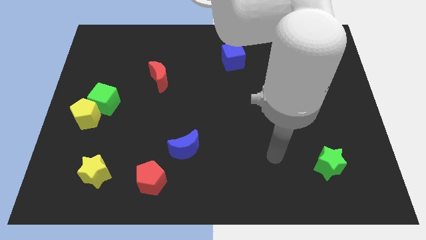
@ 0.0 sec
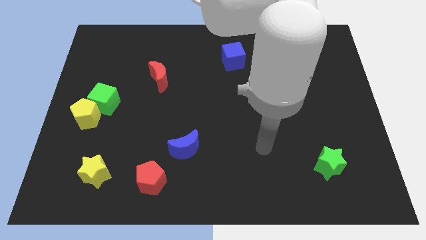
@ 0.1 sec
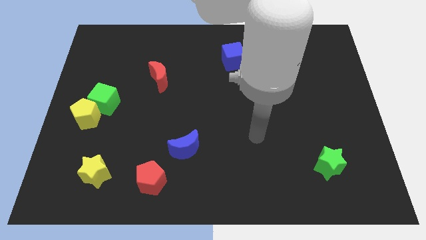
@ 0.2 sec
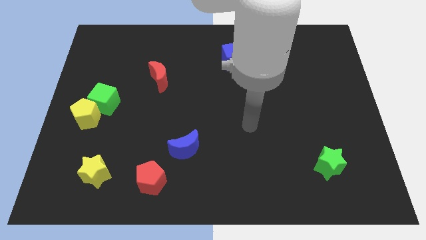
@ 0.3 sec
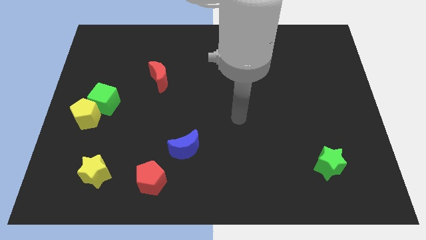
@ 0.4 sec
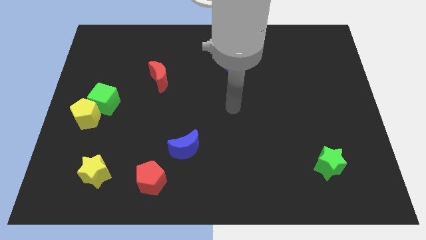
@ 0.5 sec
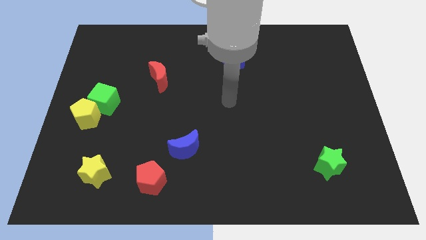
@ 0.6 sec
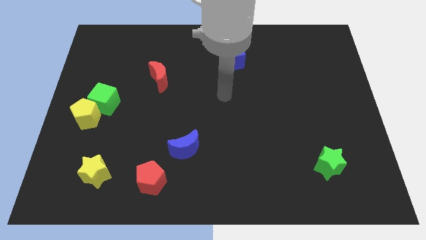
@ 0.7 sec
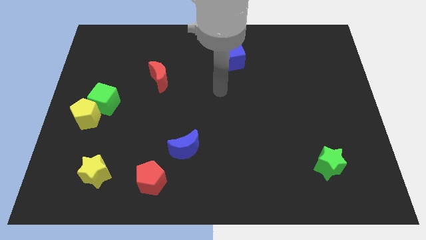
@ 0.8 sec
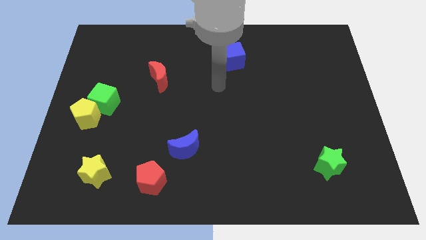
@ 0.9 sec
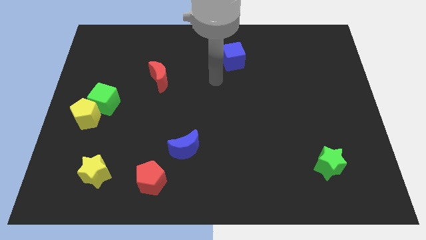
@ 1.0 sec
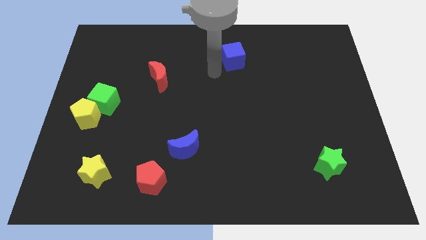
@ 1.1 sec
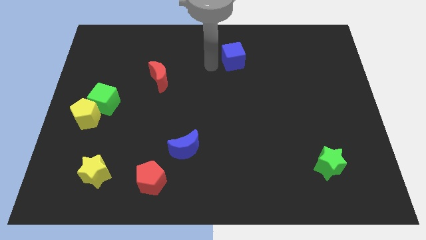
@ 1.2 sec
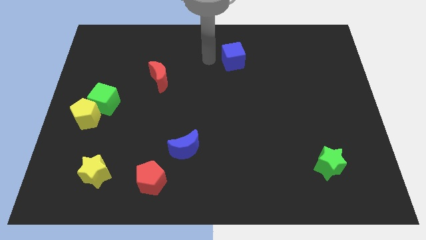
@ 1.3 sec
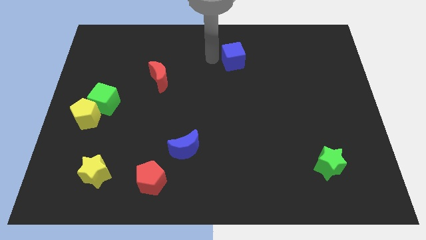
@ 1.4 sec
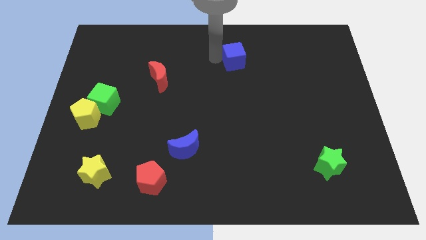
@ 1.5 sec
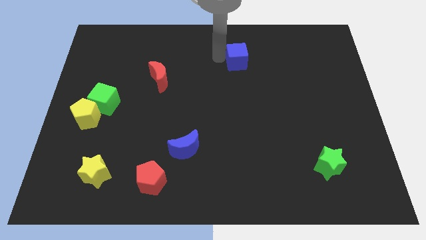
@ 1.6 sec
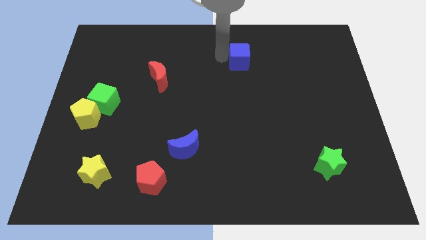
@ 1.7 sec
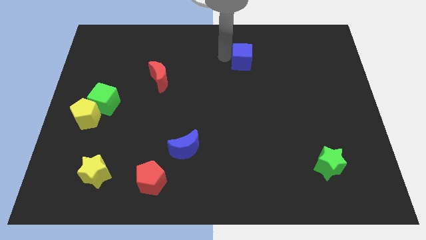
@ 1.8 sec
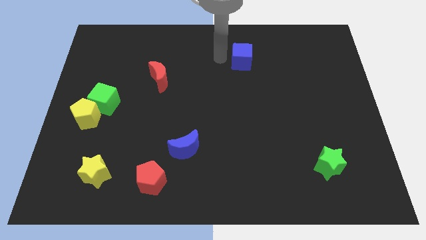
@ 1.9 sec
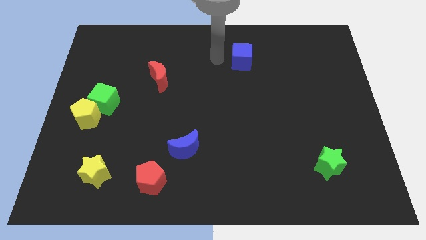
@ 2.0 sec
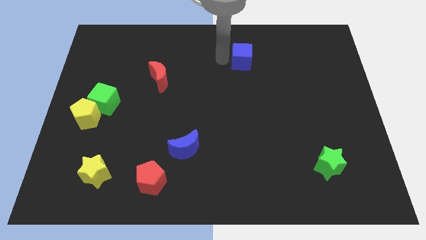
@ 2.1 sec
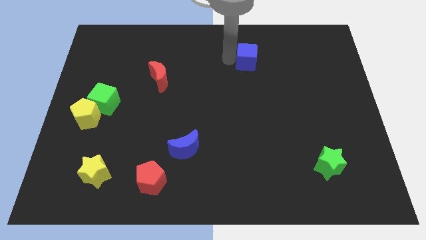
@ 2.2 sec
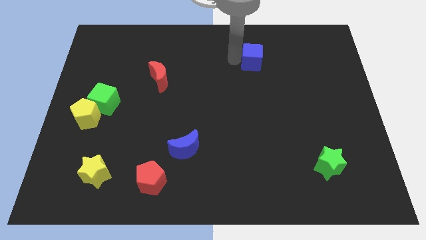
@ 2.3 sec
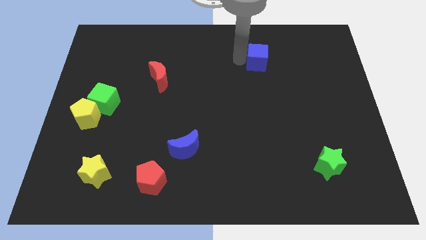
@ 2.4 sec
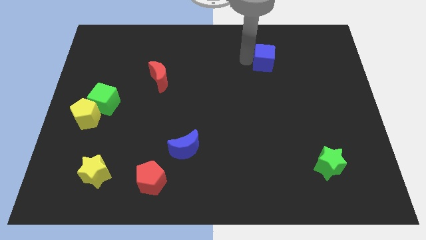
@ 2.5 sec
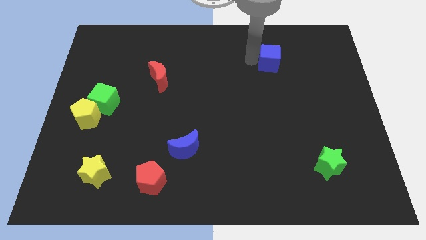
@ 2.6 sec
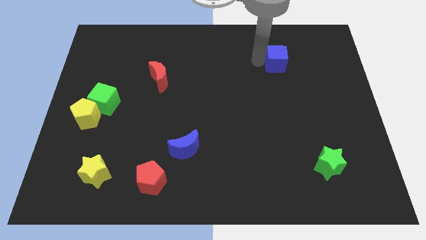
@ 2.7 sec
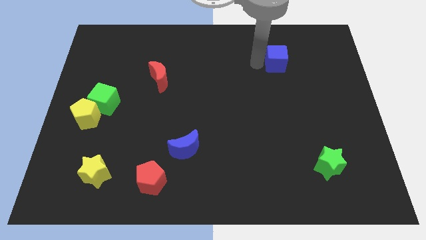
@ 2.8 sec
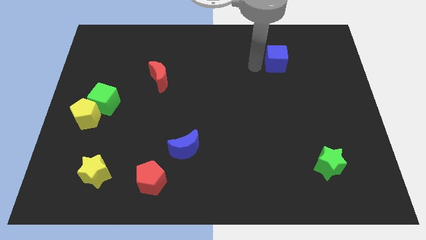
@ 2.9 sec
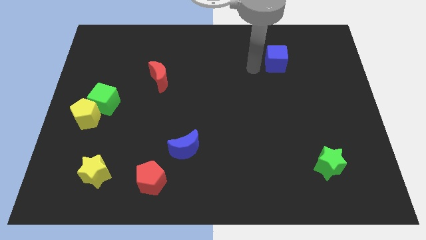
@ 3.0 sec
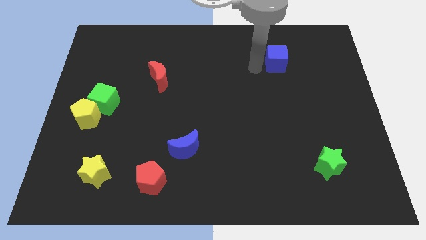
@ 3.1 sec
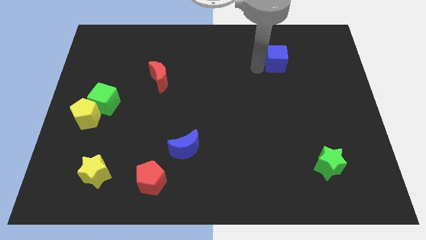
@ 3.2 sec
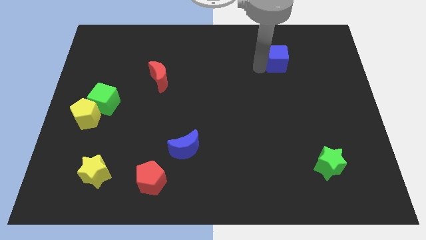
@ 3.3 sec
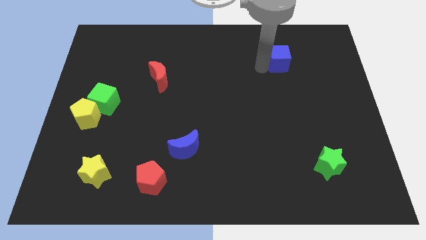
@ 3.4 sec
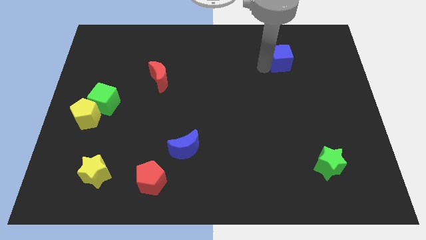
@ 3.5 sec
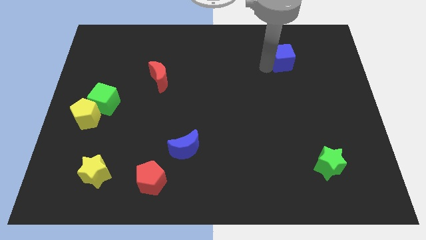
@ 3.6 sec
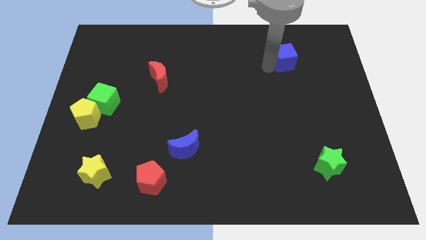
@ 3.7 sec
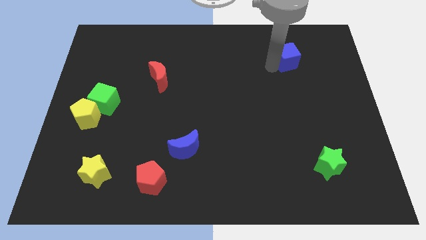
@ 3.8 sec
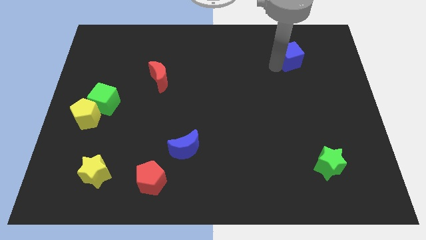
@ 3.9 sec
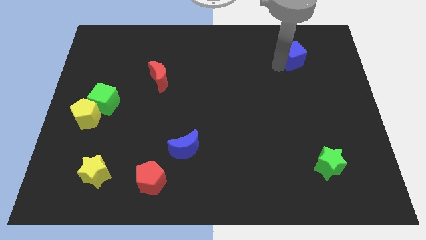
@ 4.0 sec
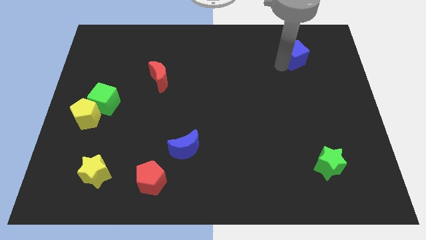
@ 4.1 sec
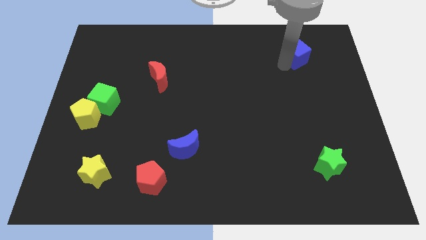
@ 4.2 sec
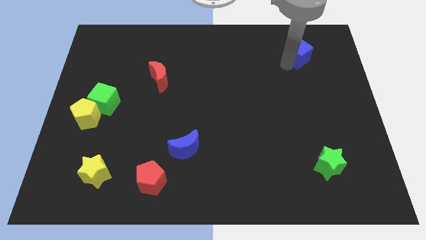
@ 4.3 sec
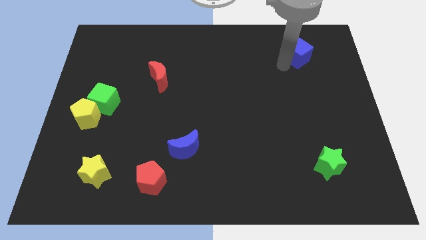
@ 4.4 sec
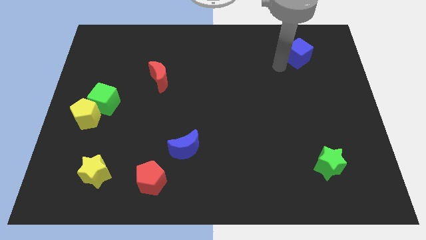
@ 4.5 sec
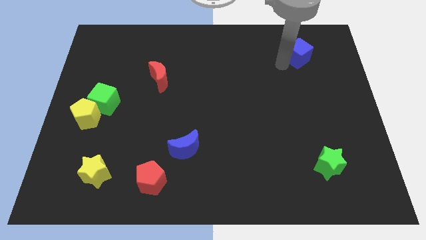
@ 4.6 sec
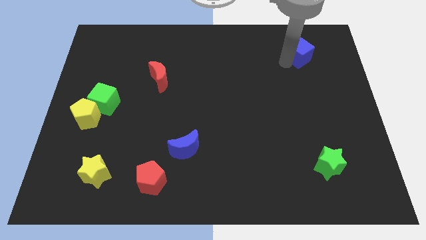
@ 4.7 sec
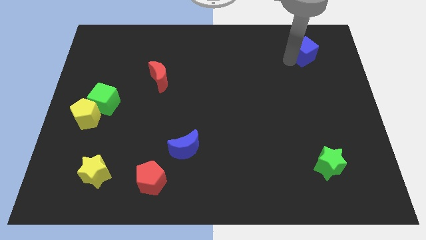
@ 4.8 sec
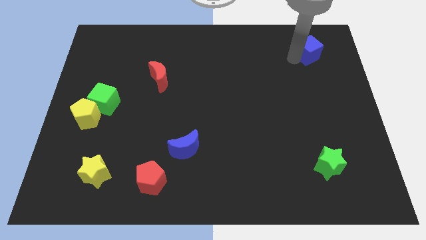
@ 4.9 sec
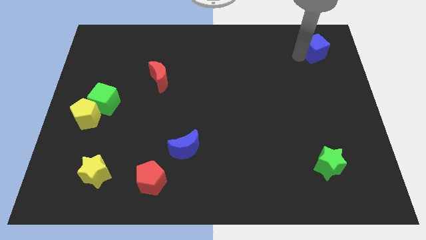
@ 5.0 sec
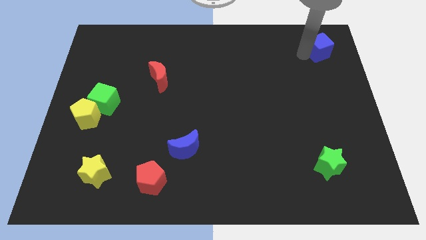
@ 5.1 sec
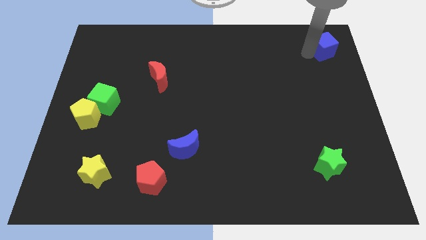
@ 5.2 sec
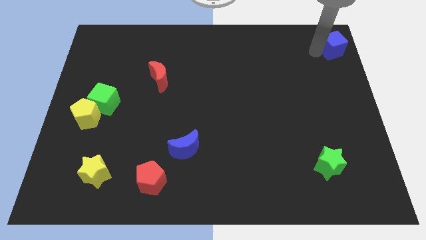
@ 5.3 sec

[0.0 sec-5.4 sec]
push the blue cube to the top right

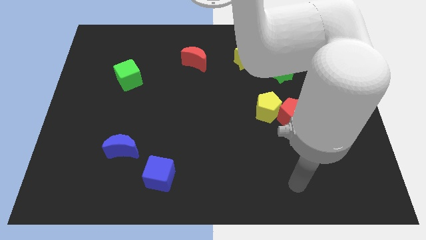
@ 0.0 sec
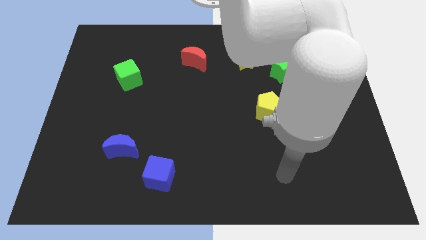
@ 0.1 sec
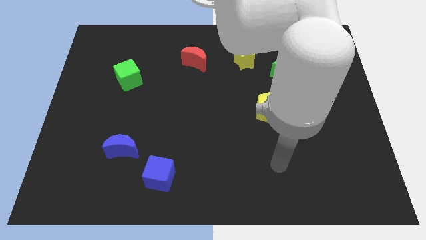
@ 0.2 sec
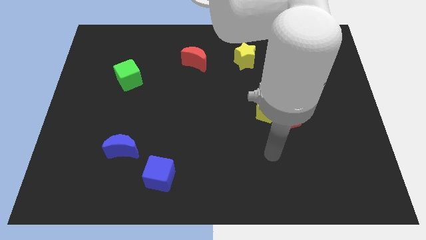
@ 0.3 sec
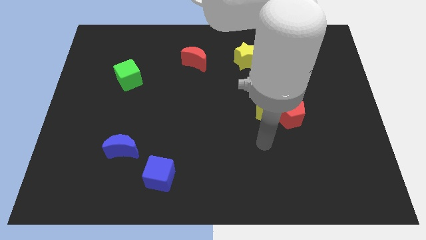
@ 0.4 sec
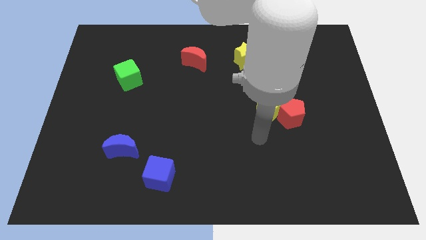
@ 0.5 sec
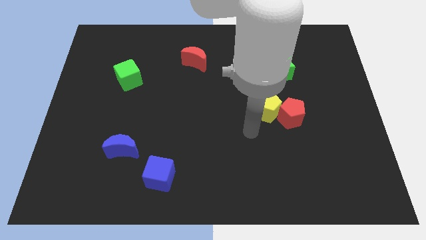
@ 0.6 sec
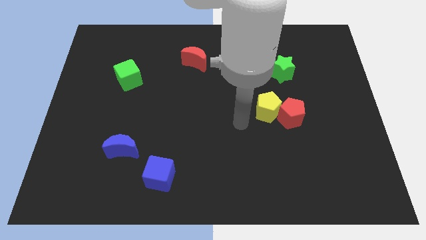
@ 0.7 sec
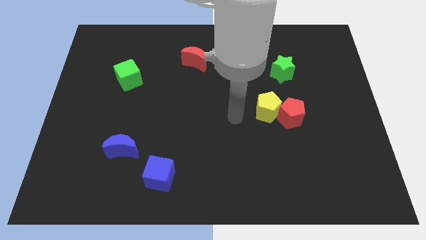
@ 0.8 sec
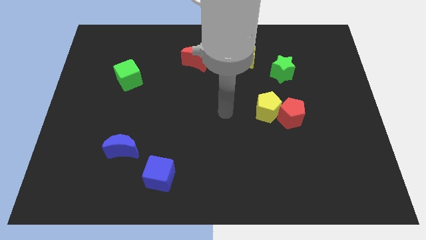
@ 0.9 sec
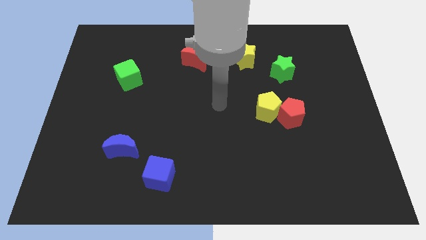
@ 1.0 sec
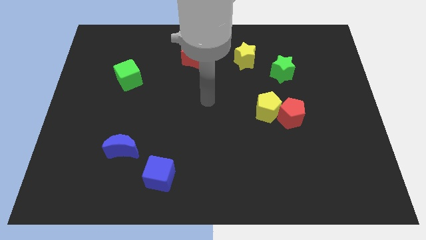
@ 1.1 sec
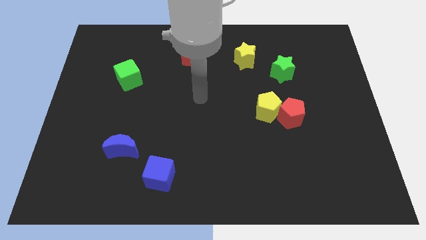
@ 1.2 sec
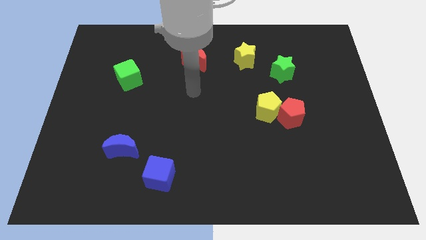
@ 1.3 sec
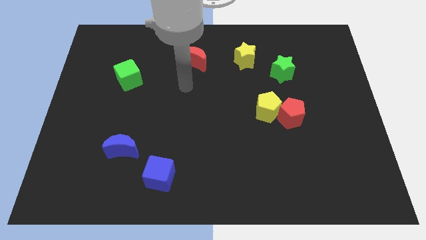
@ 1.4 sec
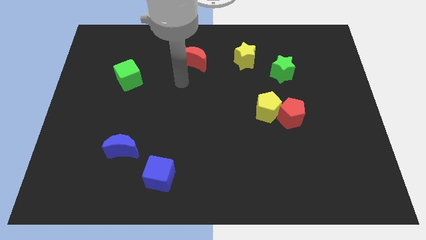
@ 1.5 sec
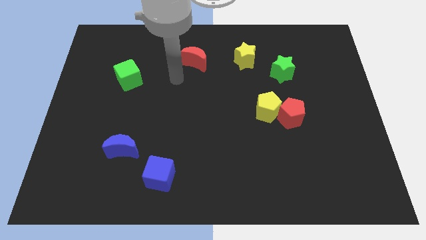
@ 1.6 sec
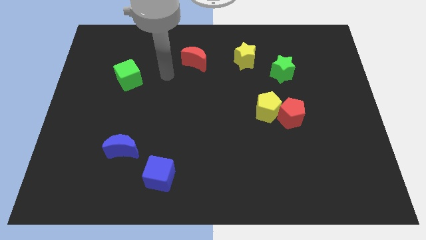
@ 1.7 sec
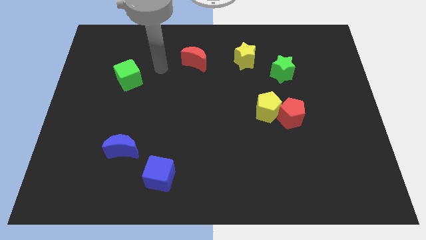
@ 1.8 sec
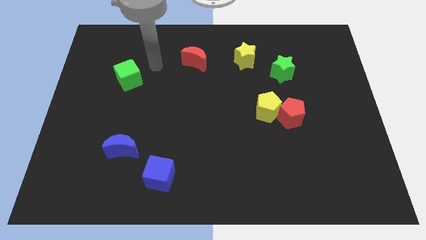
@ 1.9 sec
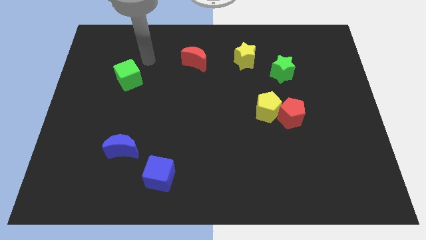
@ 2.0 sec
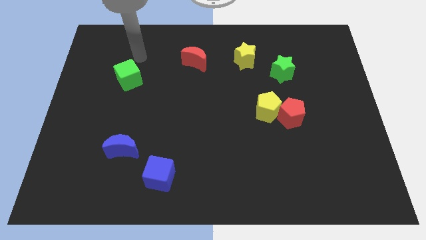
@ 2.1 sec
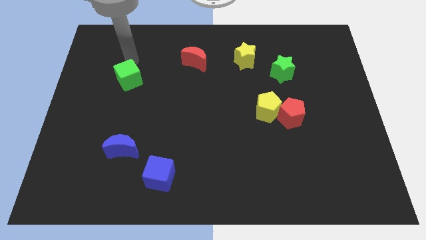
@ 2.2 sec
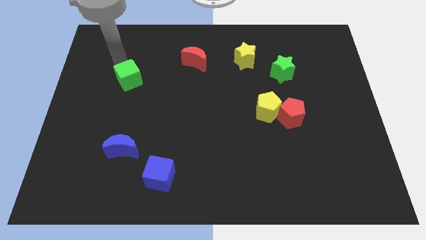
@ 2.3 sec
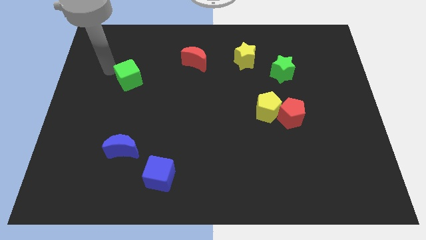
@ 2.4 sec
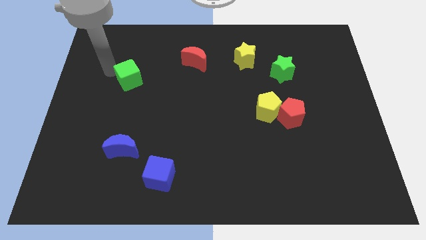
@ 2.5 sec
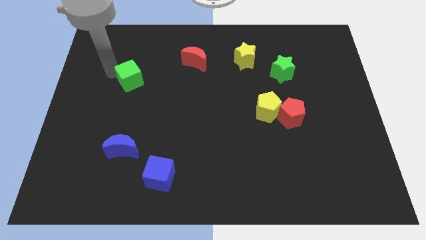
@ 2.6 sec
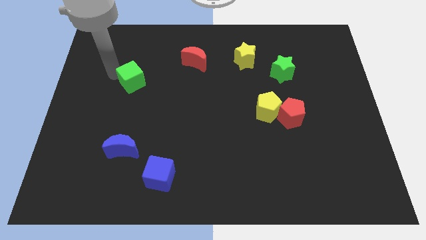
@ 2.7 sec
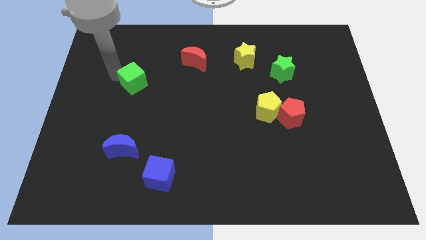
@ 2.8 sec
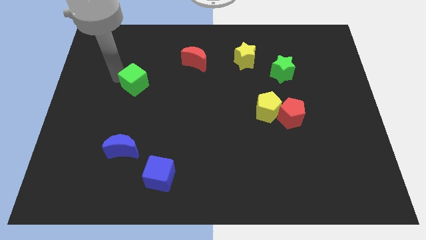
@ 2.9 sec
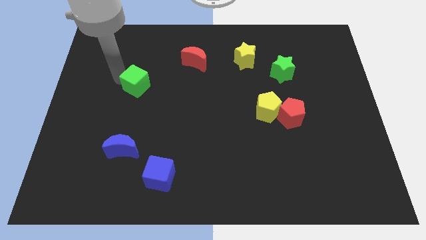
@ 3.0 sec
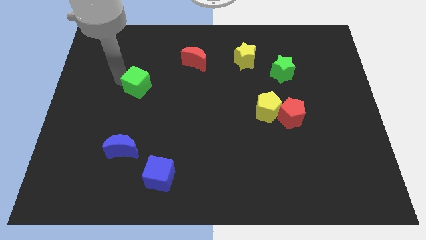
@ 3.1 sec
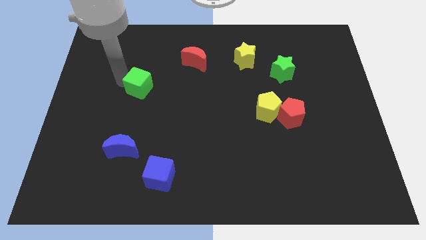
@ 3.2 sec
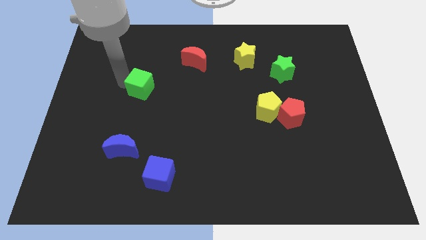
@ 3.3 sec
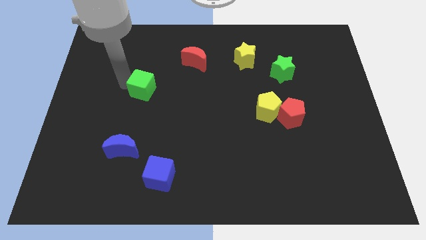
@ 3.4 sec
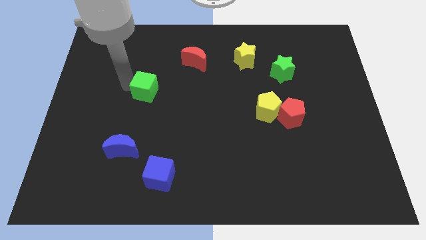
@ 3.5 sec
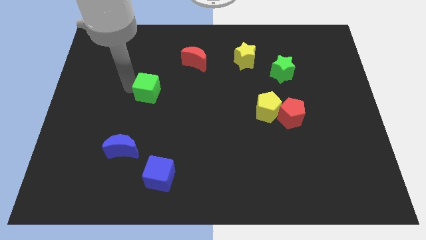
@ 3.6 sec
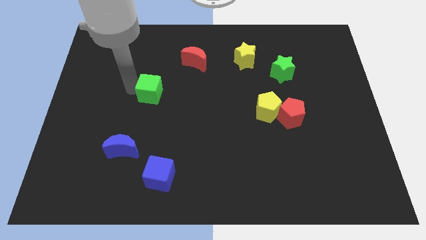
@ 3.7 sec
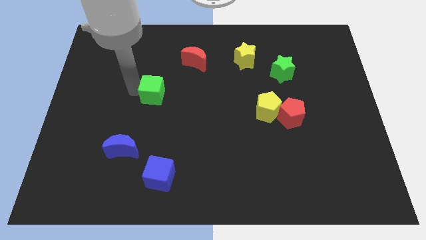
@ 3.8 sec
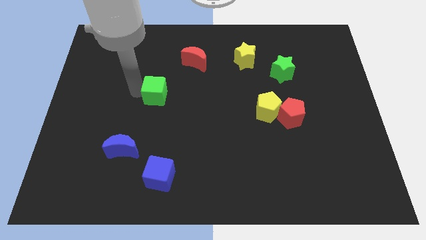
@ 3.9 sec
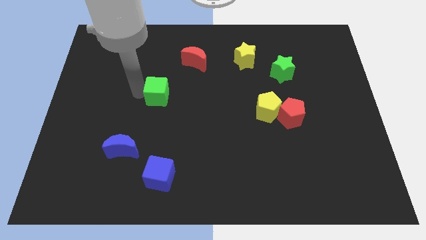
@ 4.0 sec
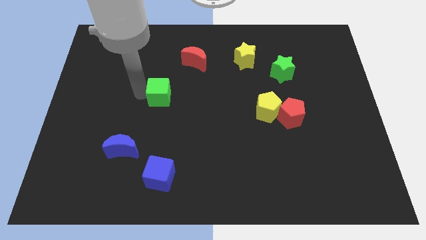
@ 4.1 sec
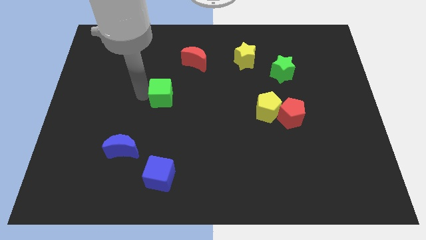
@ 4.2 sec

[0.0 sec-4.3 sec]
slide the green cube to the center
